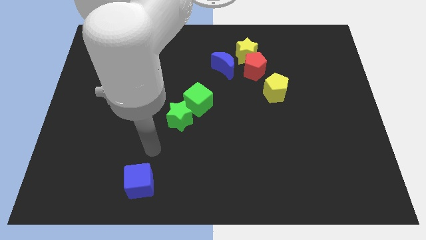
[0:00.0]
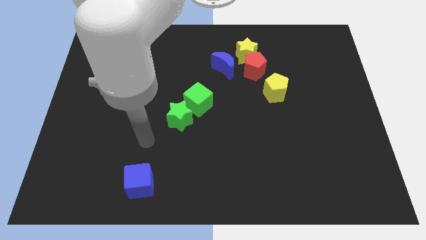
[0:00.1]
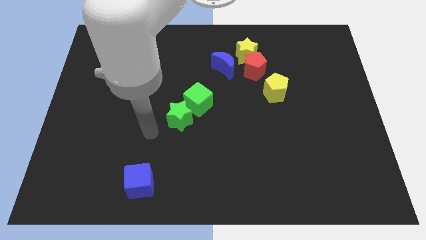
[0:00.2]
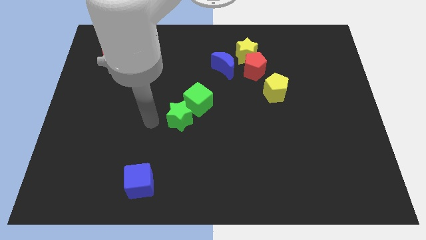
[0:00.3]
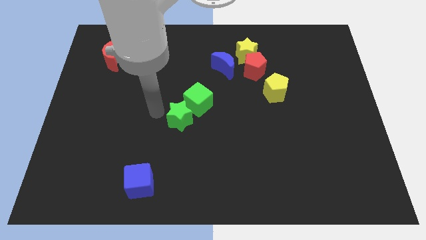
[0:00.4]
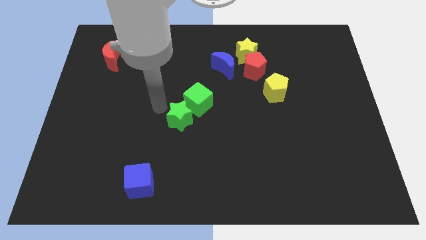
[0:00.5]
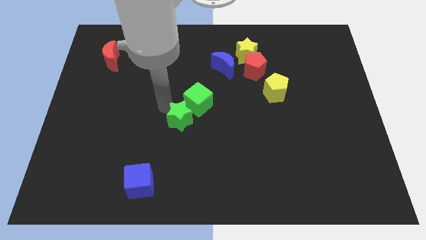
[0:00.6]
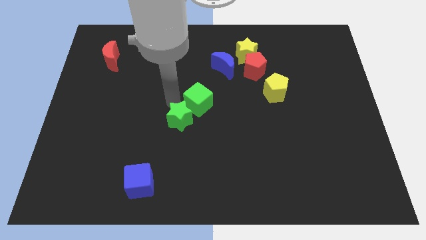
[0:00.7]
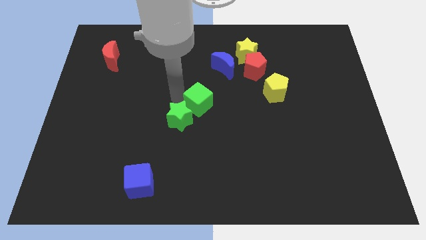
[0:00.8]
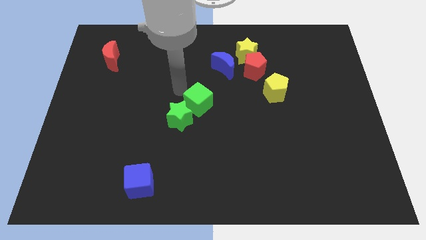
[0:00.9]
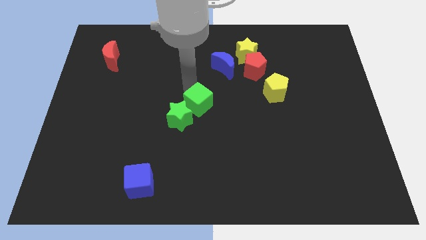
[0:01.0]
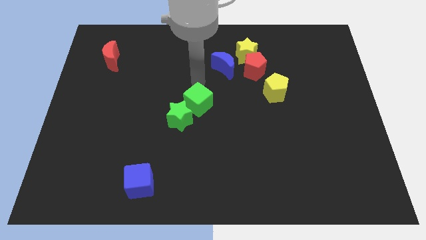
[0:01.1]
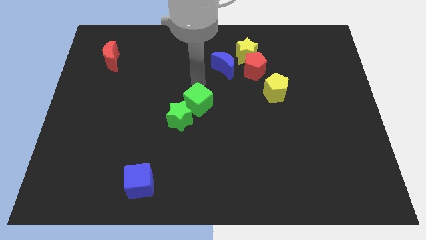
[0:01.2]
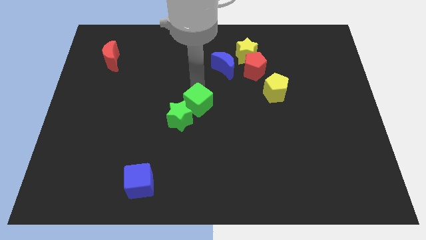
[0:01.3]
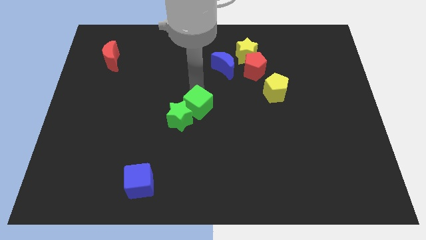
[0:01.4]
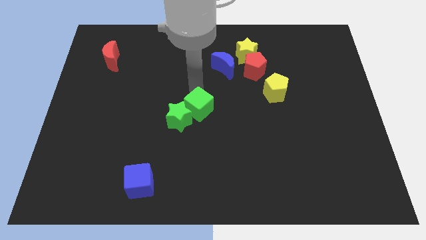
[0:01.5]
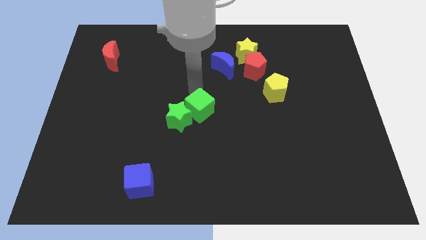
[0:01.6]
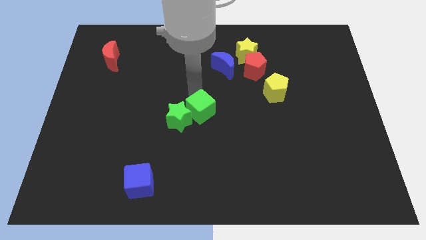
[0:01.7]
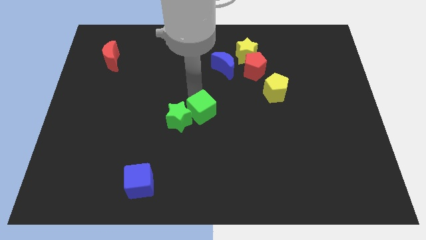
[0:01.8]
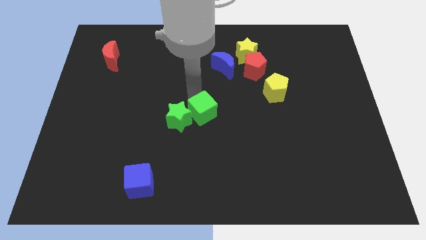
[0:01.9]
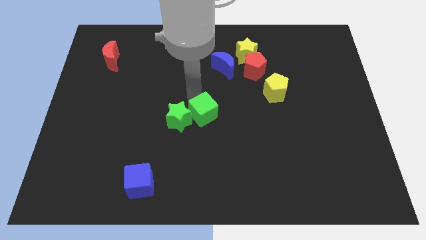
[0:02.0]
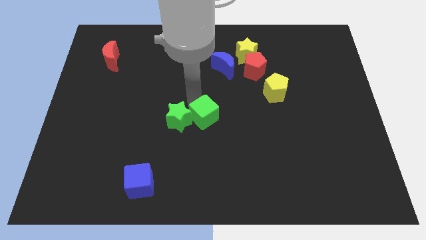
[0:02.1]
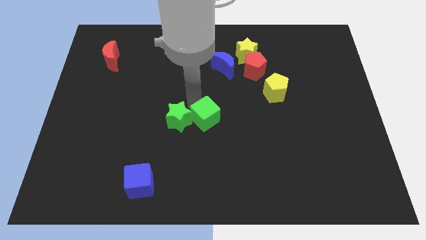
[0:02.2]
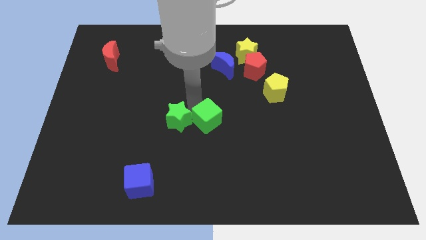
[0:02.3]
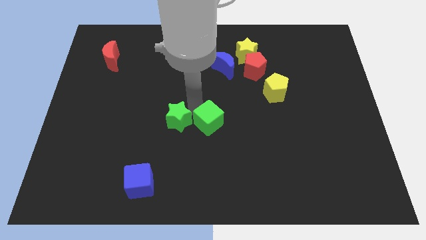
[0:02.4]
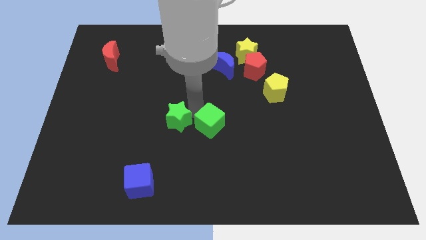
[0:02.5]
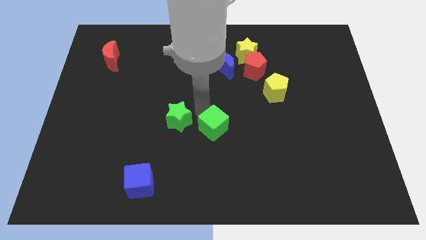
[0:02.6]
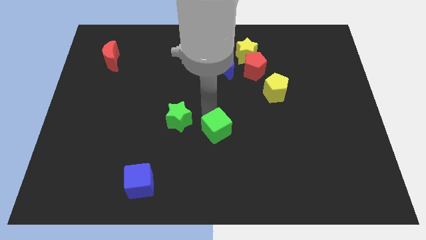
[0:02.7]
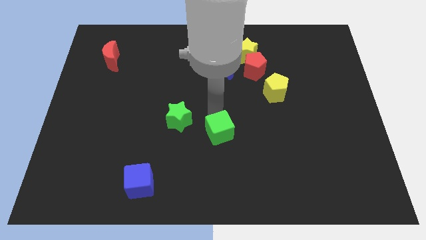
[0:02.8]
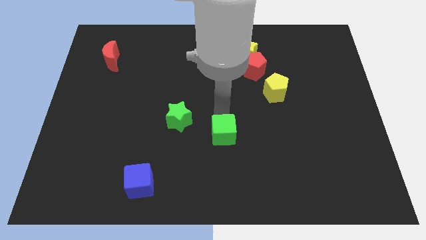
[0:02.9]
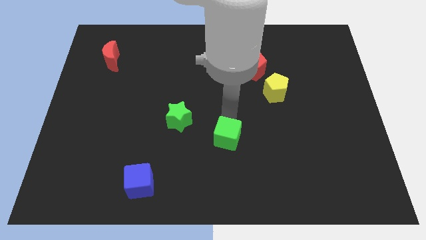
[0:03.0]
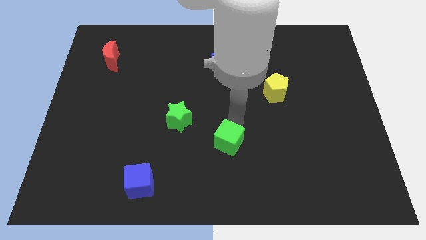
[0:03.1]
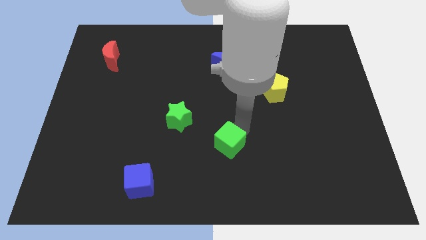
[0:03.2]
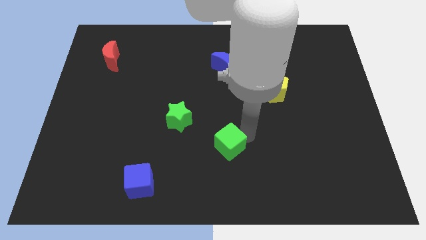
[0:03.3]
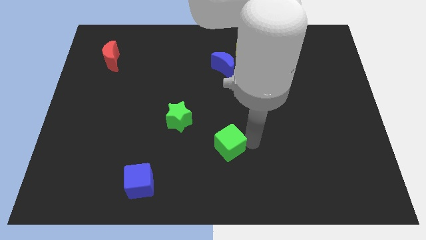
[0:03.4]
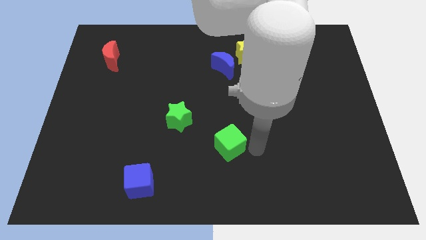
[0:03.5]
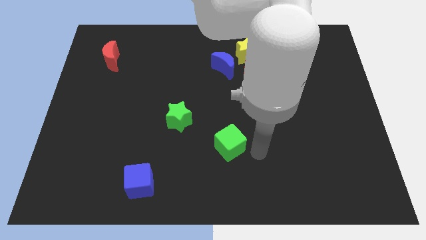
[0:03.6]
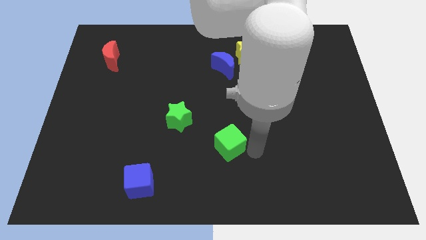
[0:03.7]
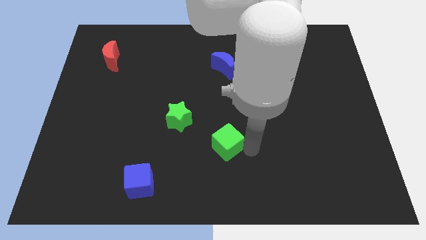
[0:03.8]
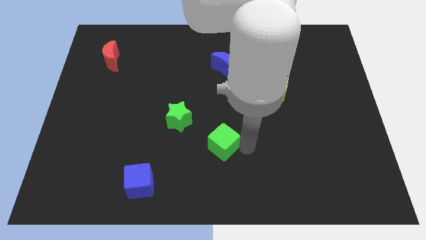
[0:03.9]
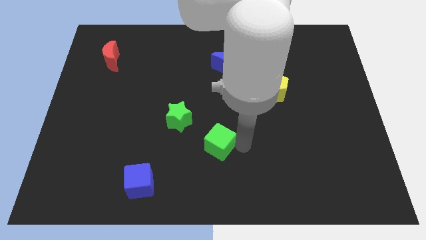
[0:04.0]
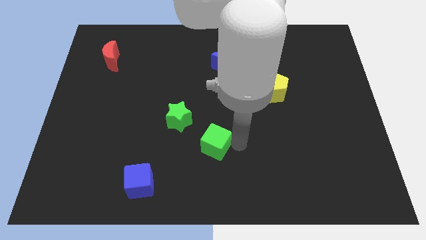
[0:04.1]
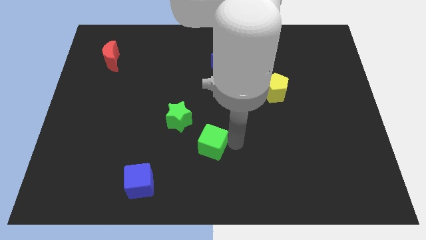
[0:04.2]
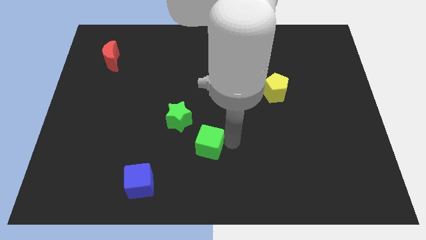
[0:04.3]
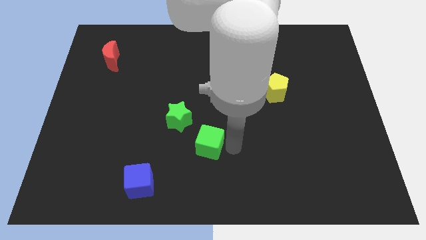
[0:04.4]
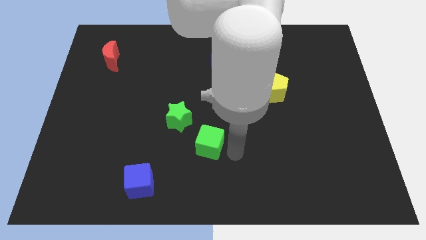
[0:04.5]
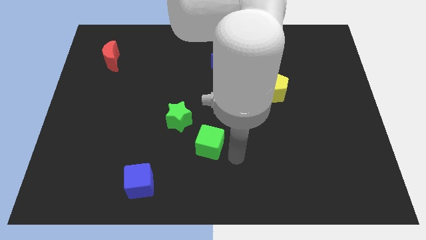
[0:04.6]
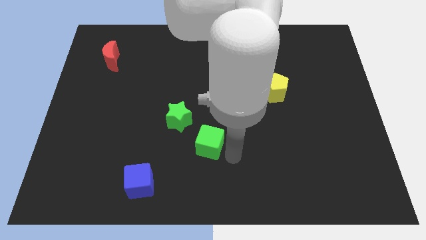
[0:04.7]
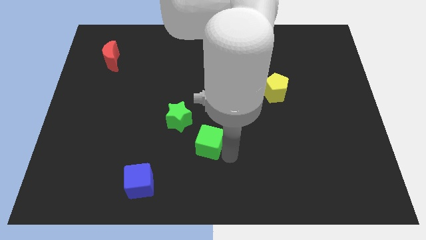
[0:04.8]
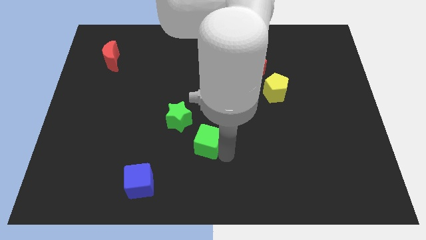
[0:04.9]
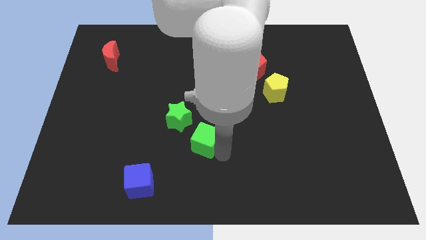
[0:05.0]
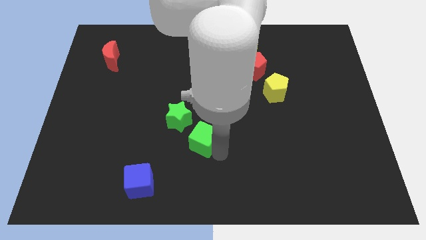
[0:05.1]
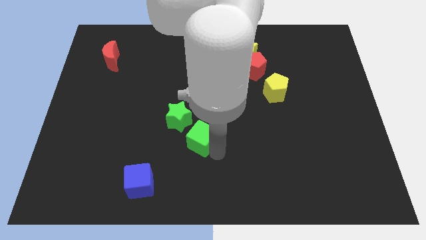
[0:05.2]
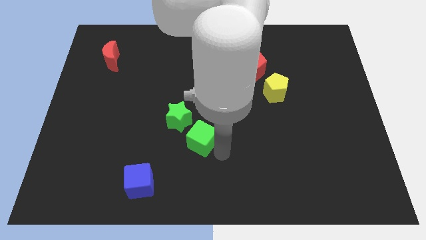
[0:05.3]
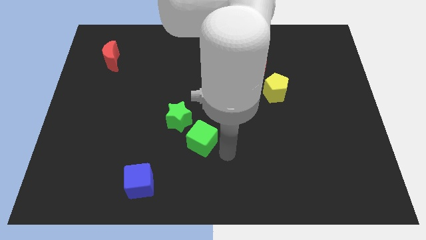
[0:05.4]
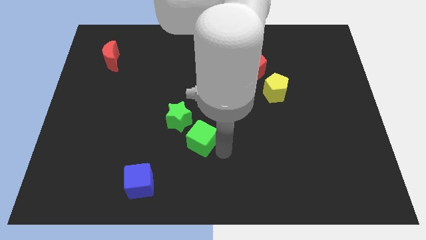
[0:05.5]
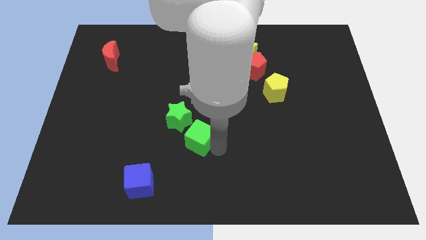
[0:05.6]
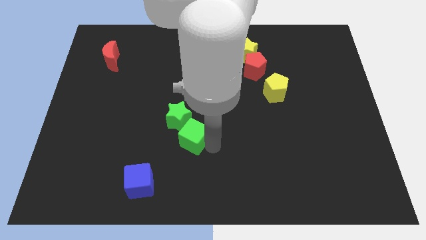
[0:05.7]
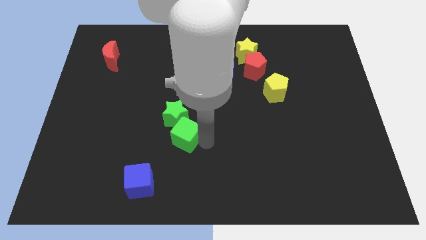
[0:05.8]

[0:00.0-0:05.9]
push the green cube slightly diagonally downwards and left

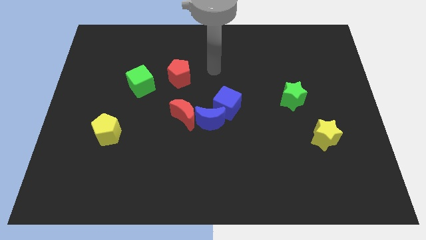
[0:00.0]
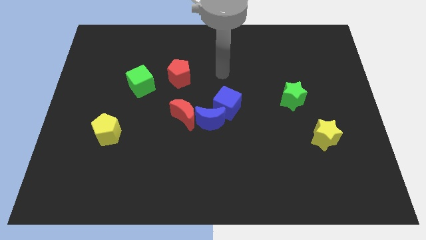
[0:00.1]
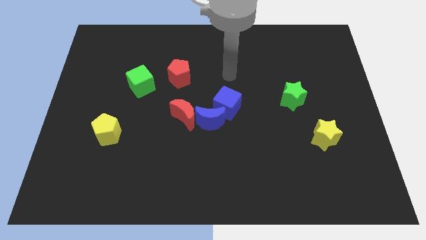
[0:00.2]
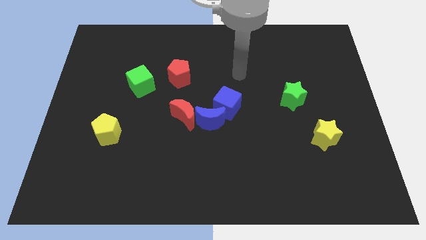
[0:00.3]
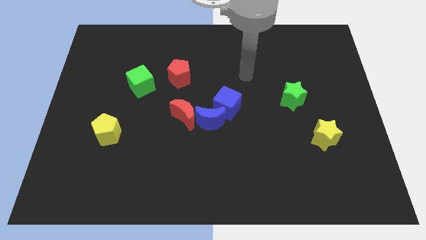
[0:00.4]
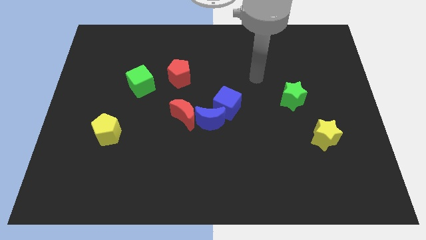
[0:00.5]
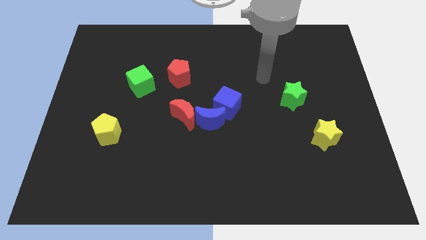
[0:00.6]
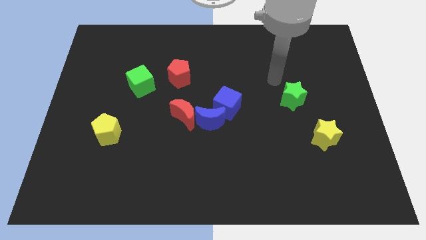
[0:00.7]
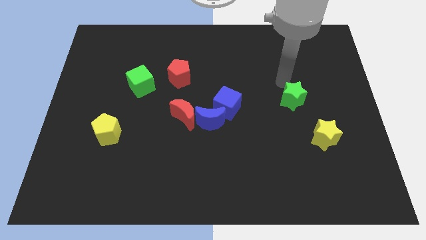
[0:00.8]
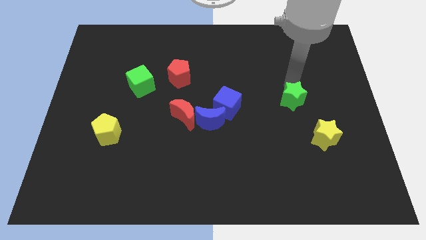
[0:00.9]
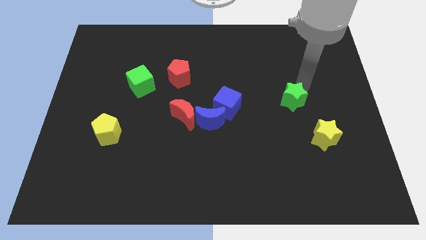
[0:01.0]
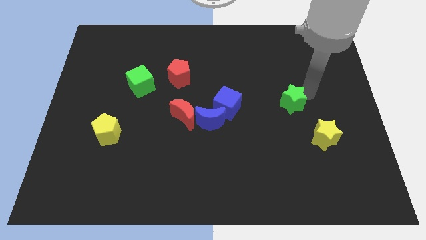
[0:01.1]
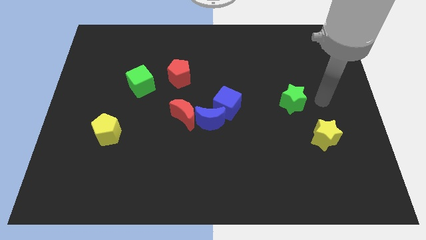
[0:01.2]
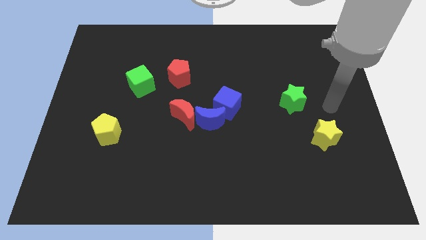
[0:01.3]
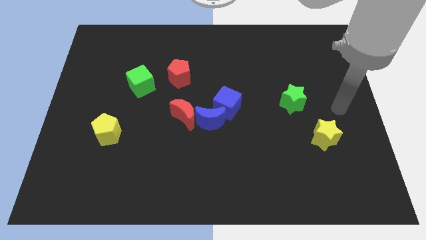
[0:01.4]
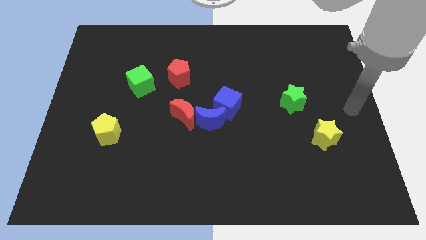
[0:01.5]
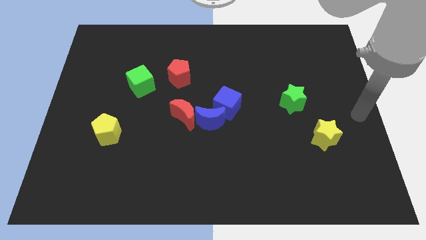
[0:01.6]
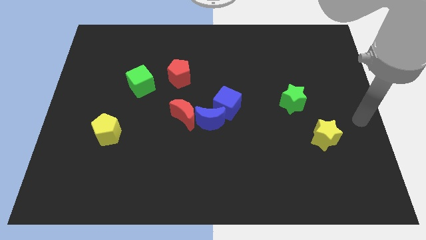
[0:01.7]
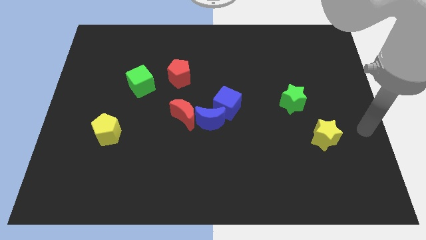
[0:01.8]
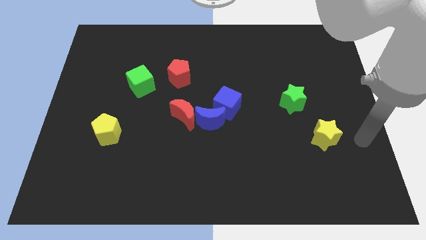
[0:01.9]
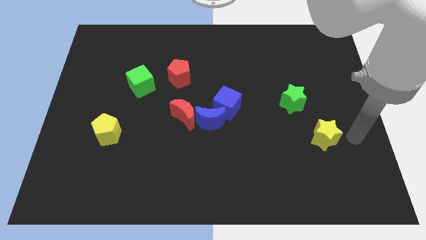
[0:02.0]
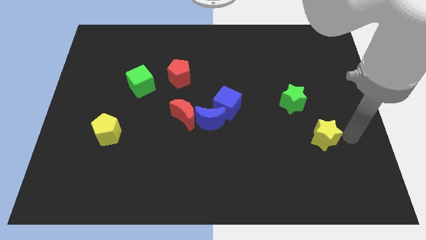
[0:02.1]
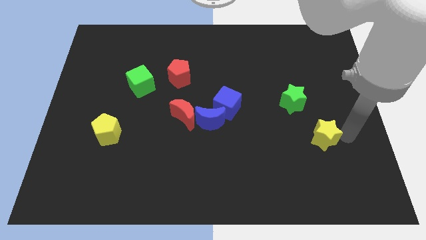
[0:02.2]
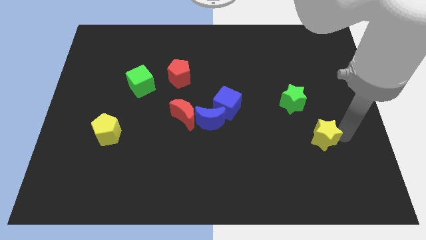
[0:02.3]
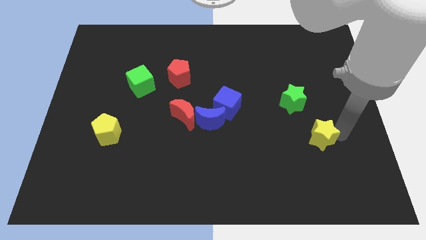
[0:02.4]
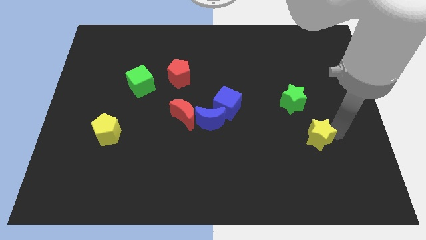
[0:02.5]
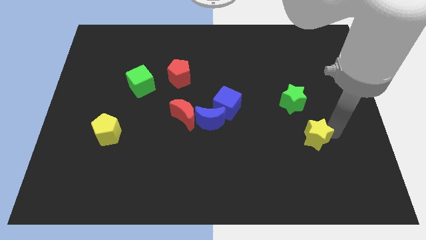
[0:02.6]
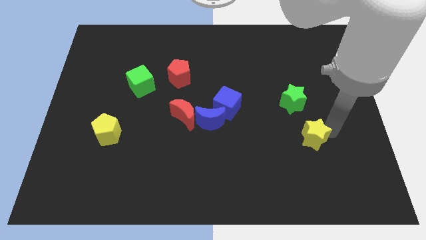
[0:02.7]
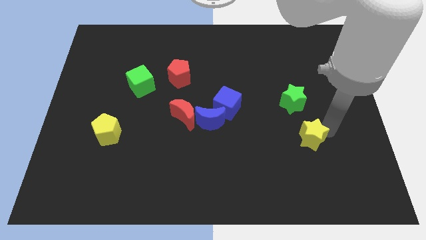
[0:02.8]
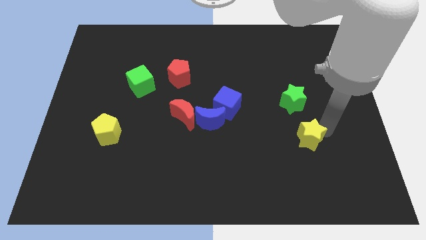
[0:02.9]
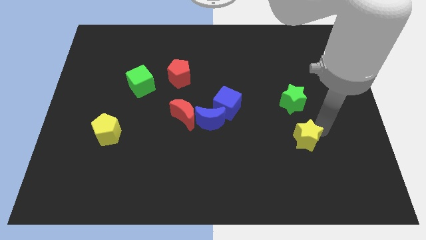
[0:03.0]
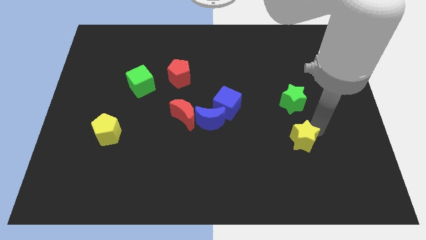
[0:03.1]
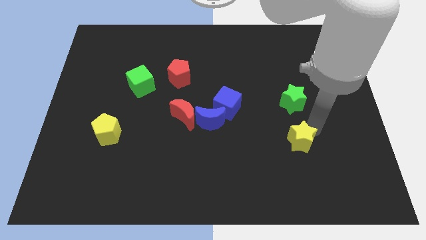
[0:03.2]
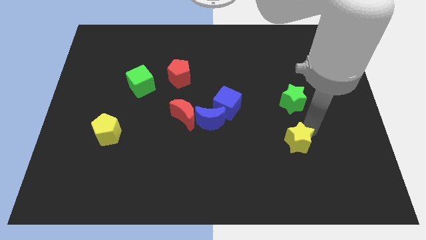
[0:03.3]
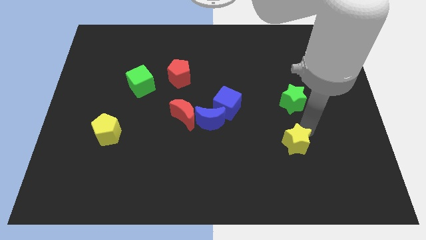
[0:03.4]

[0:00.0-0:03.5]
push the yellow star left a little bit
